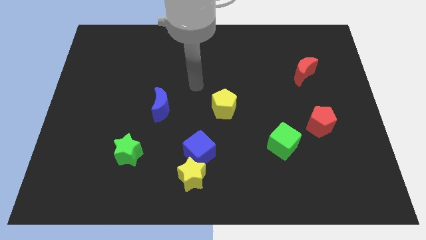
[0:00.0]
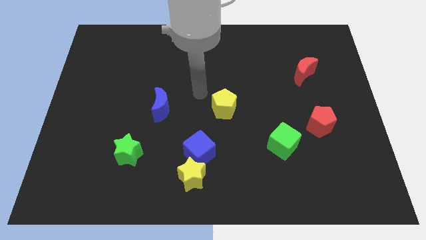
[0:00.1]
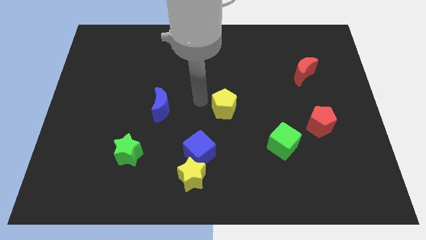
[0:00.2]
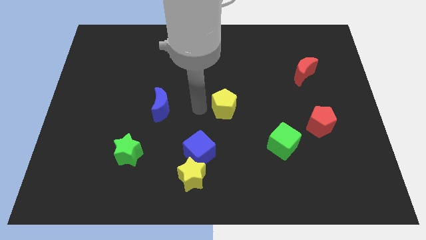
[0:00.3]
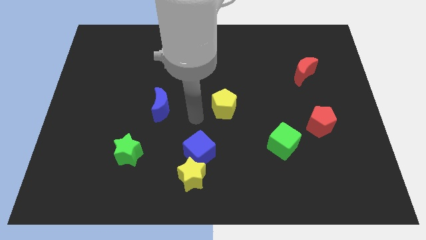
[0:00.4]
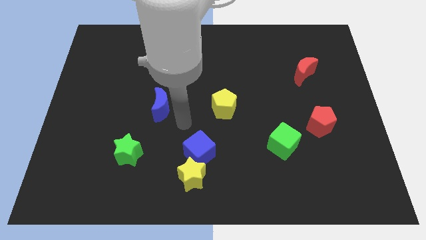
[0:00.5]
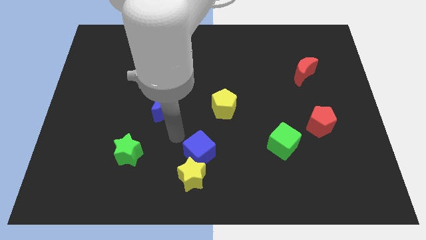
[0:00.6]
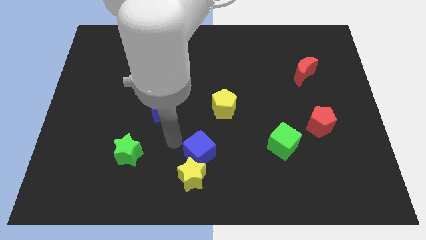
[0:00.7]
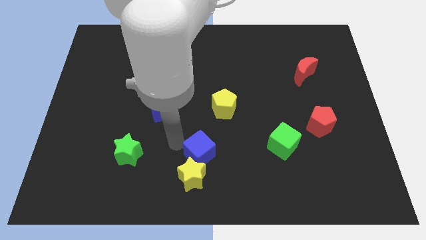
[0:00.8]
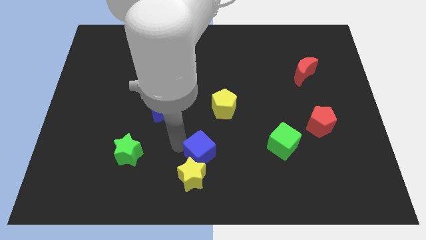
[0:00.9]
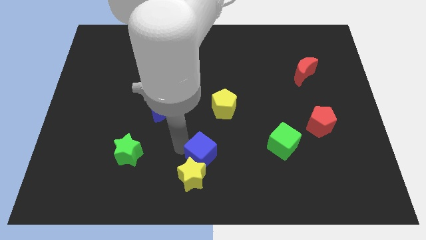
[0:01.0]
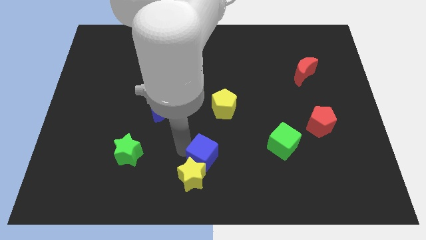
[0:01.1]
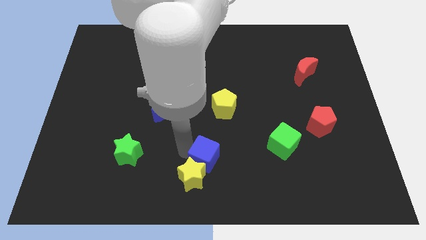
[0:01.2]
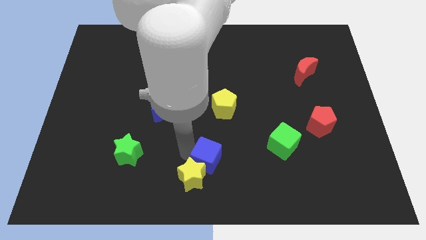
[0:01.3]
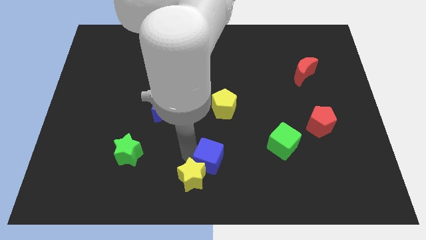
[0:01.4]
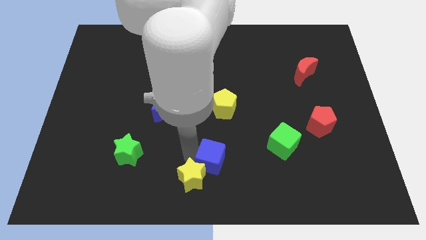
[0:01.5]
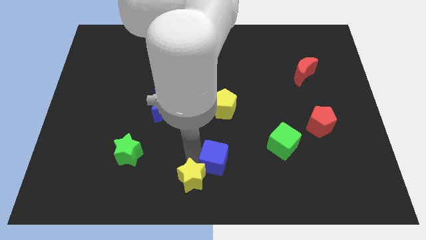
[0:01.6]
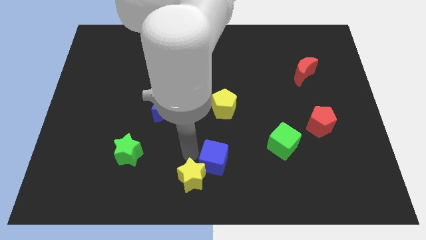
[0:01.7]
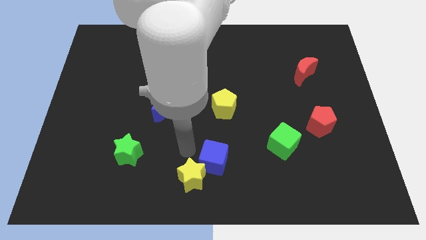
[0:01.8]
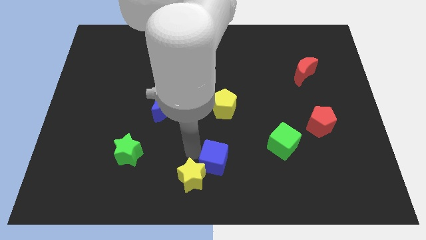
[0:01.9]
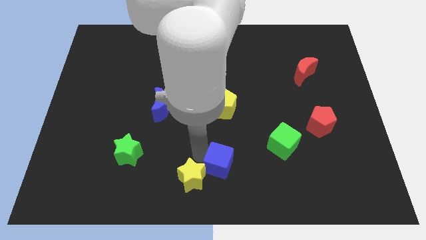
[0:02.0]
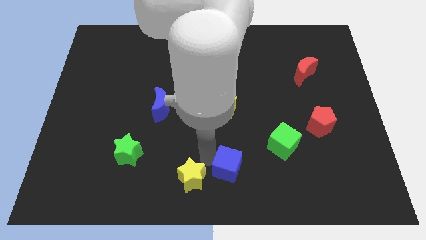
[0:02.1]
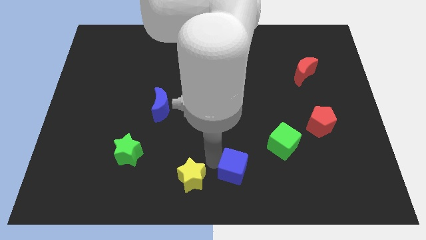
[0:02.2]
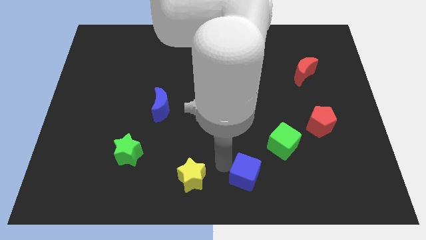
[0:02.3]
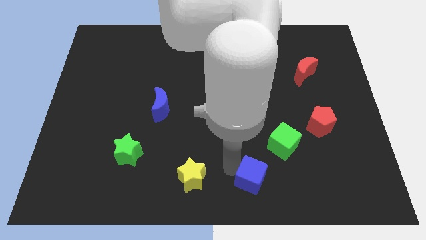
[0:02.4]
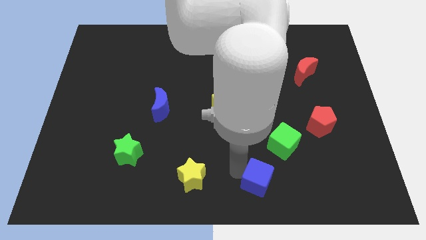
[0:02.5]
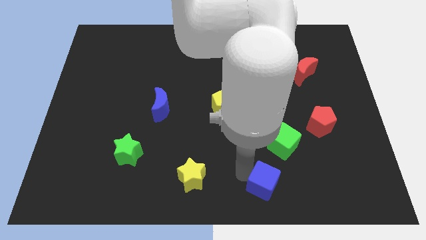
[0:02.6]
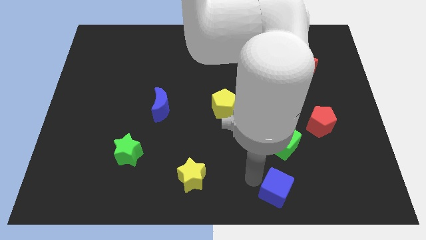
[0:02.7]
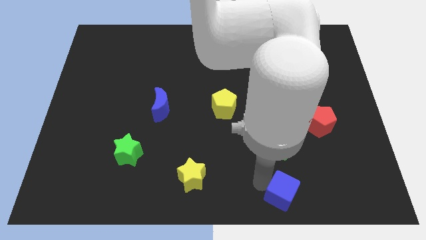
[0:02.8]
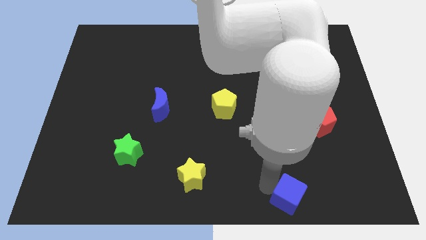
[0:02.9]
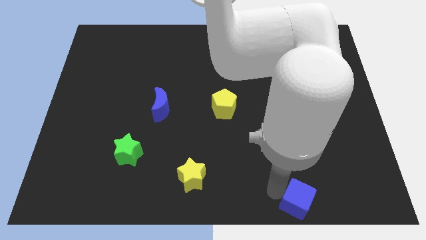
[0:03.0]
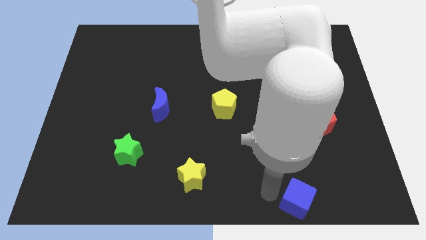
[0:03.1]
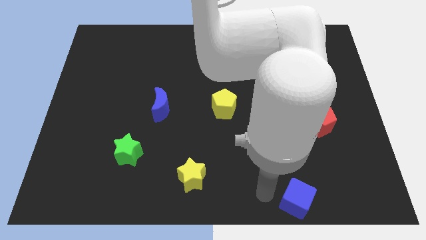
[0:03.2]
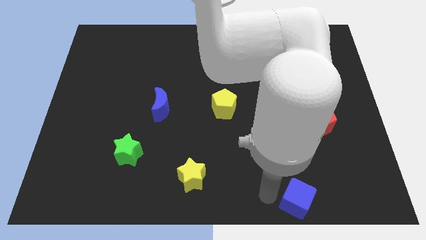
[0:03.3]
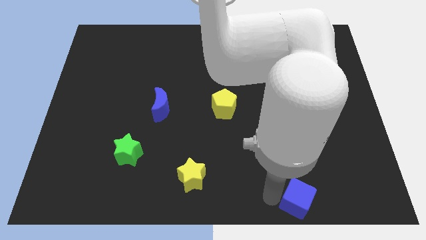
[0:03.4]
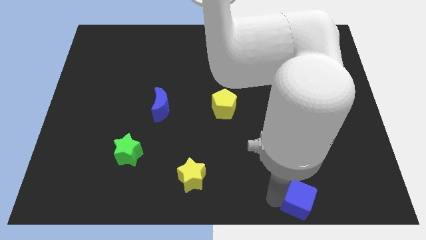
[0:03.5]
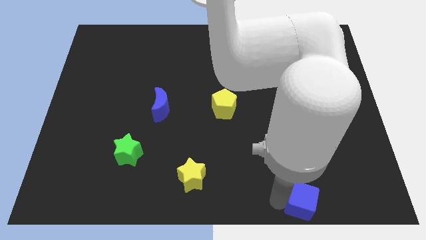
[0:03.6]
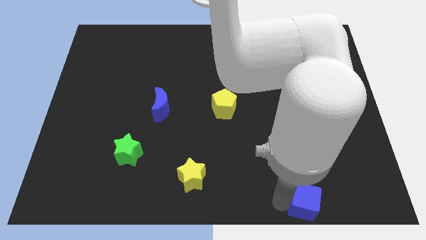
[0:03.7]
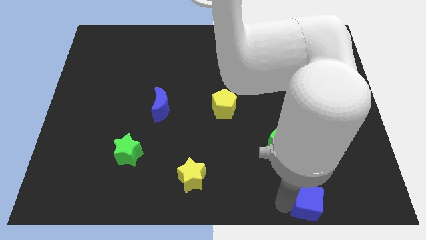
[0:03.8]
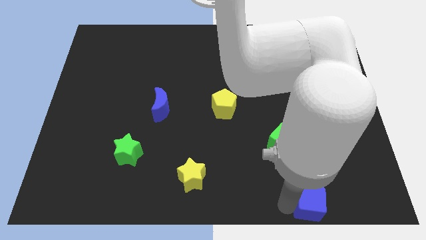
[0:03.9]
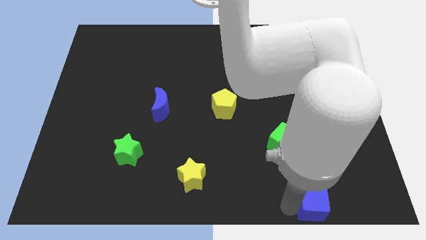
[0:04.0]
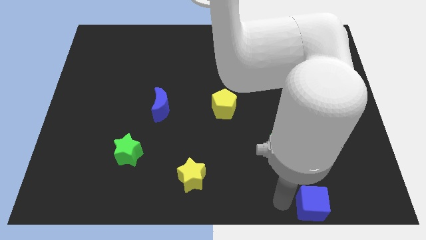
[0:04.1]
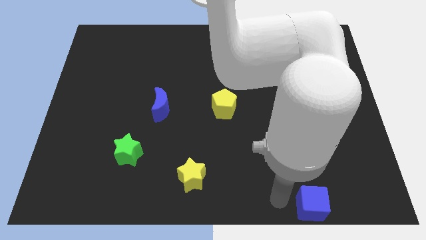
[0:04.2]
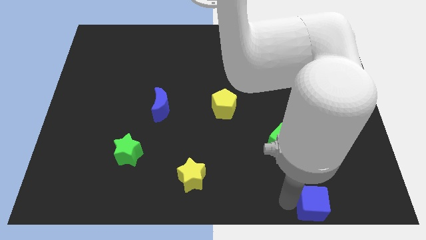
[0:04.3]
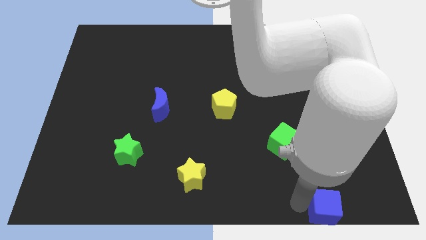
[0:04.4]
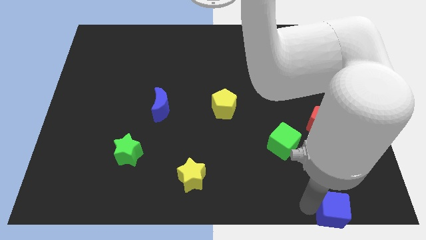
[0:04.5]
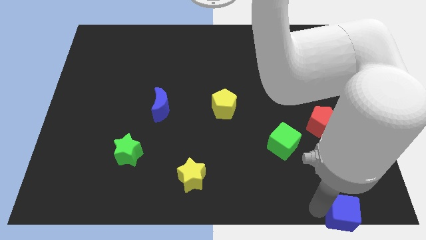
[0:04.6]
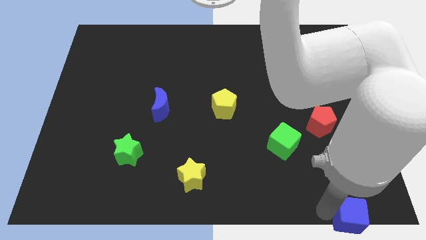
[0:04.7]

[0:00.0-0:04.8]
slide the blue cube to the bottom right corner

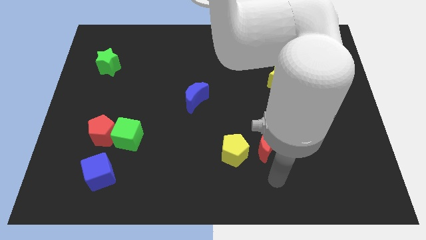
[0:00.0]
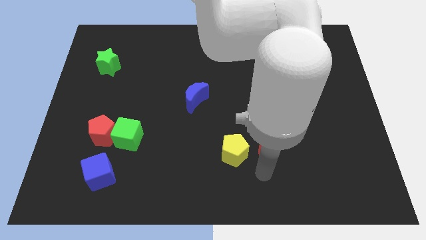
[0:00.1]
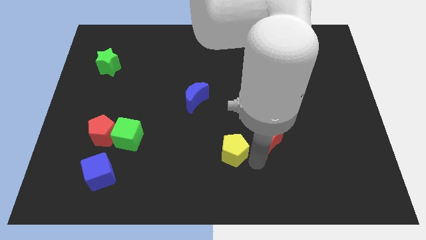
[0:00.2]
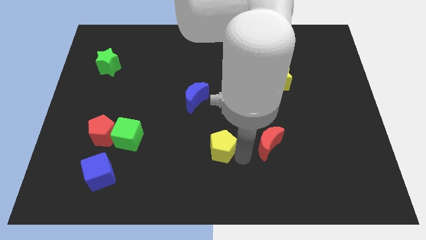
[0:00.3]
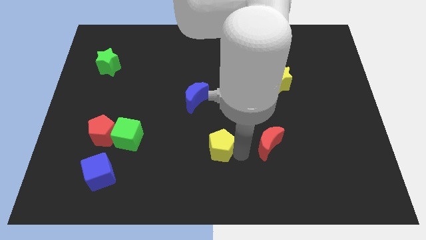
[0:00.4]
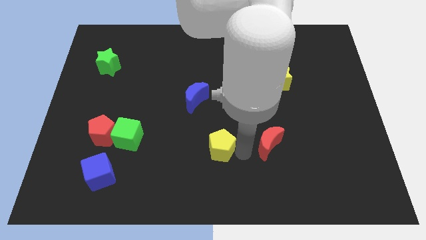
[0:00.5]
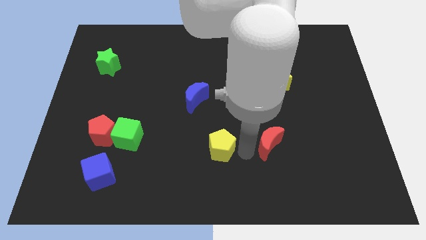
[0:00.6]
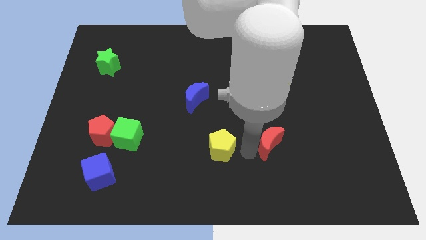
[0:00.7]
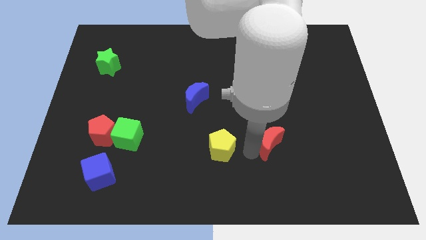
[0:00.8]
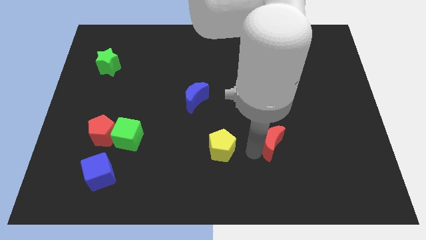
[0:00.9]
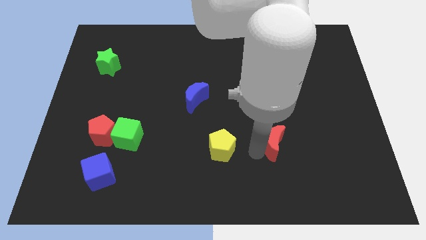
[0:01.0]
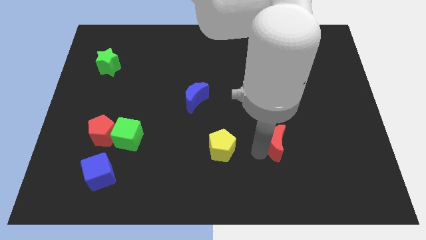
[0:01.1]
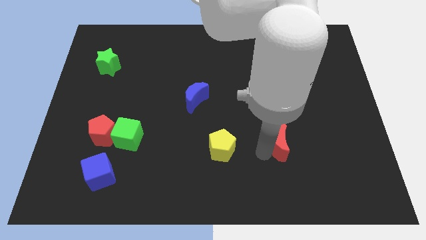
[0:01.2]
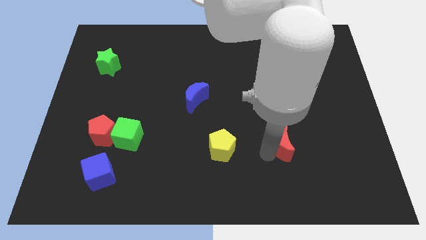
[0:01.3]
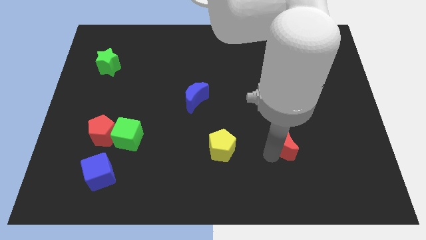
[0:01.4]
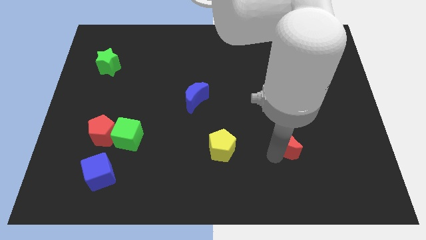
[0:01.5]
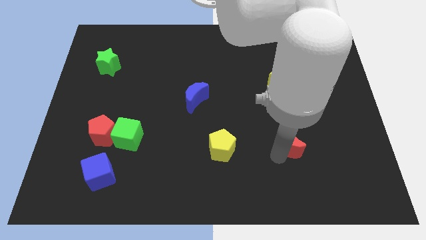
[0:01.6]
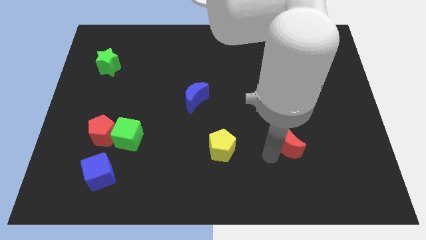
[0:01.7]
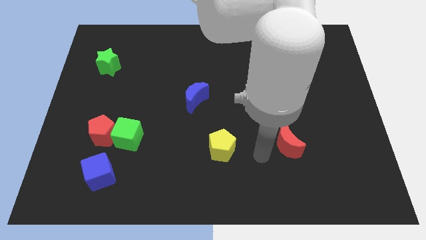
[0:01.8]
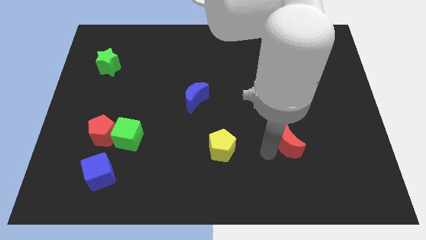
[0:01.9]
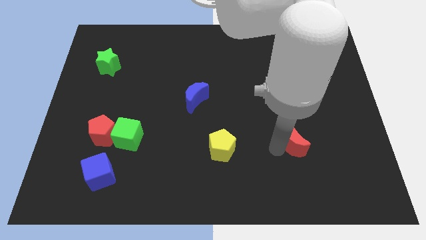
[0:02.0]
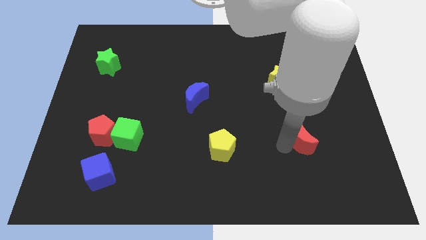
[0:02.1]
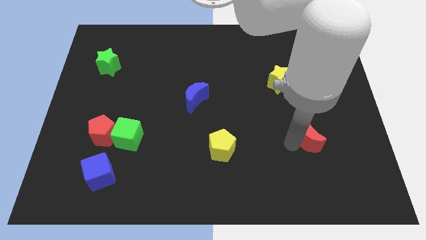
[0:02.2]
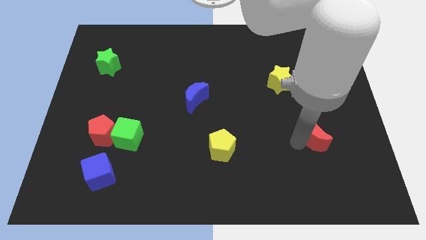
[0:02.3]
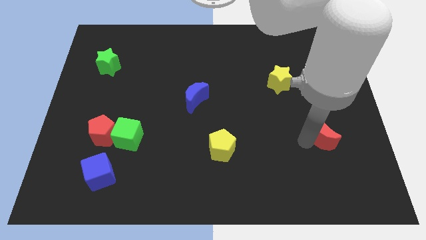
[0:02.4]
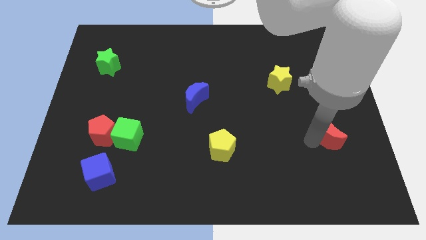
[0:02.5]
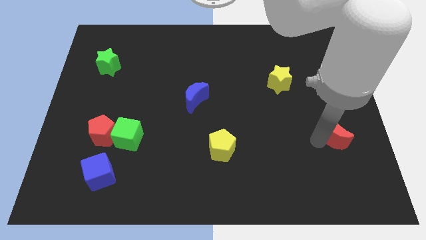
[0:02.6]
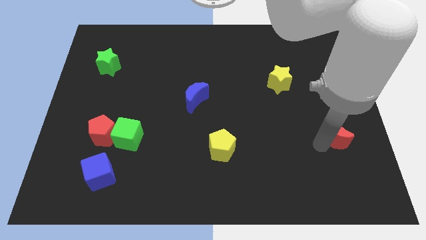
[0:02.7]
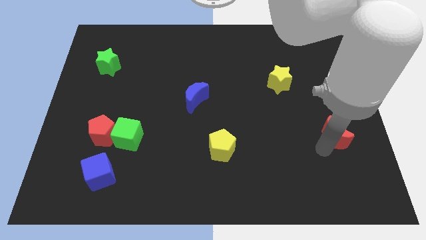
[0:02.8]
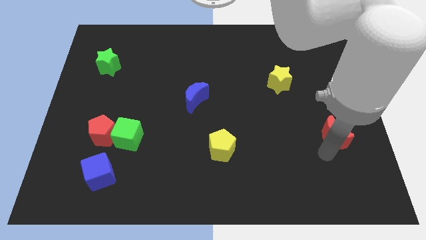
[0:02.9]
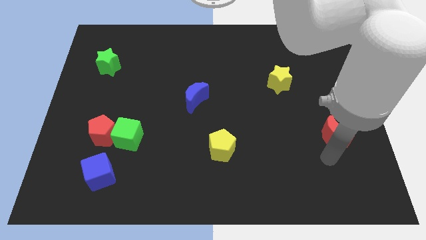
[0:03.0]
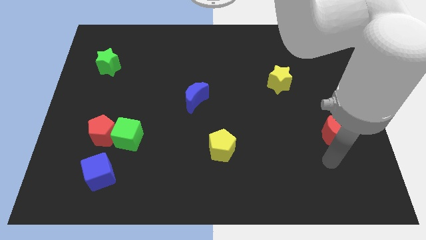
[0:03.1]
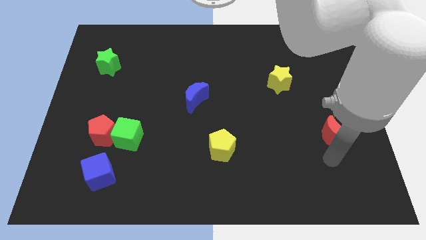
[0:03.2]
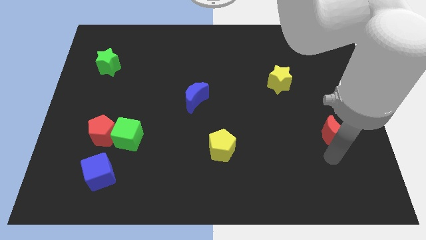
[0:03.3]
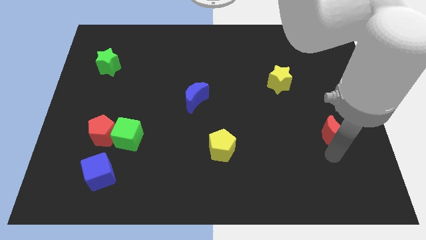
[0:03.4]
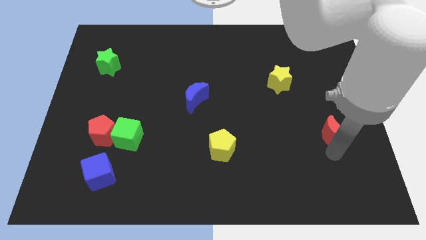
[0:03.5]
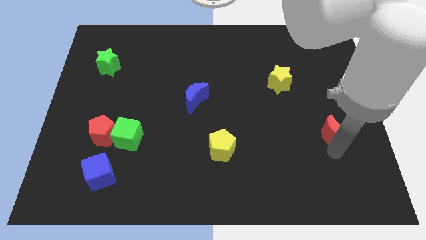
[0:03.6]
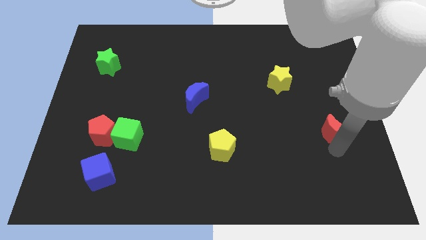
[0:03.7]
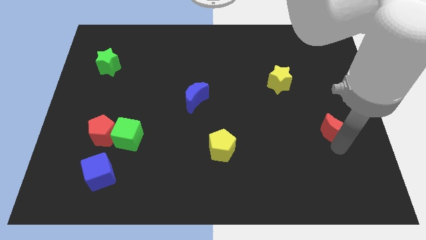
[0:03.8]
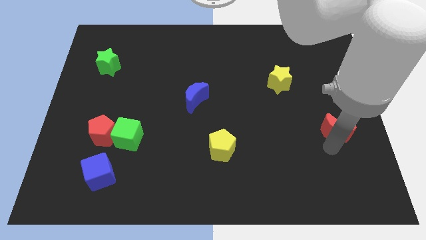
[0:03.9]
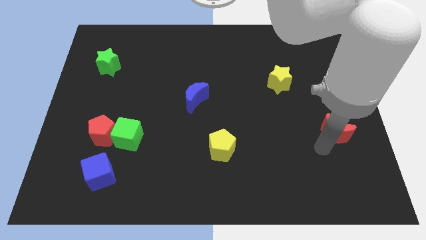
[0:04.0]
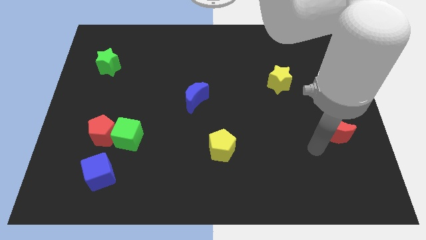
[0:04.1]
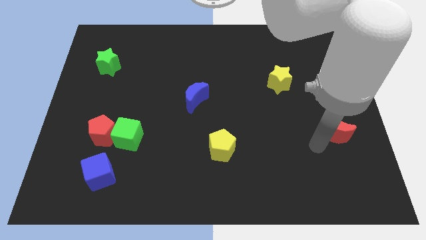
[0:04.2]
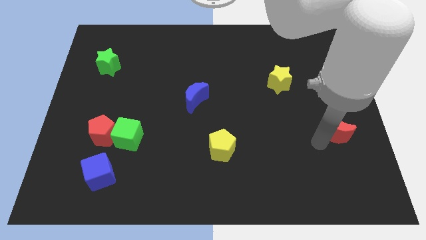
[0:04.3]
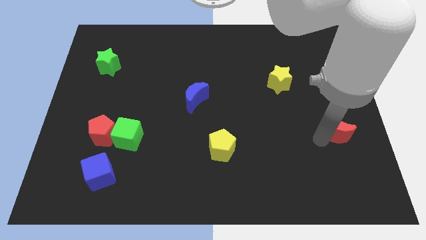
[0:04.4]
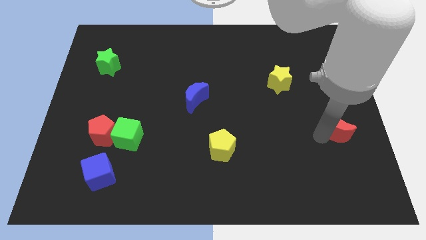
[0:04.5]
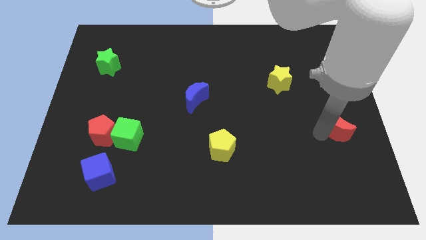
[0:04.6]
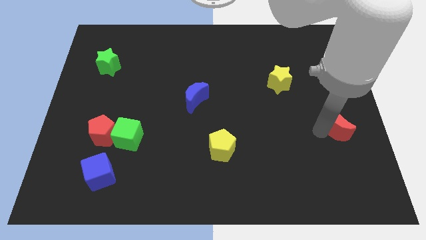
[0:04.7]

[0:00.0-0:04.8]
push the red moon to the right side
